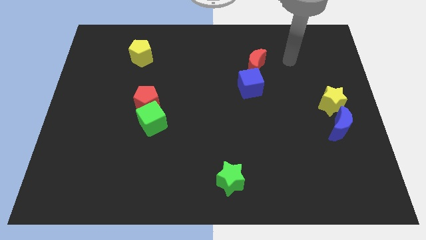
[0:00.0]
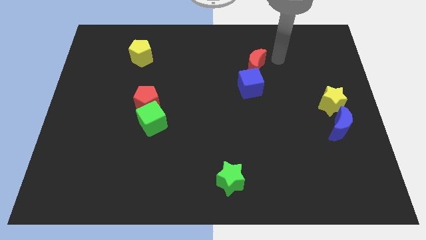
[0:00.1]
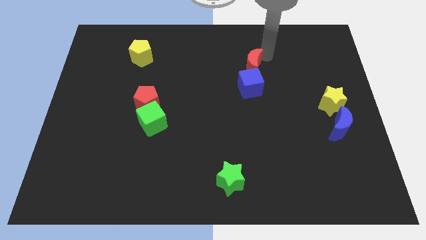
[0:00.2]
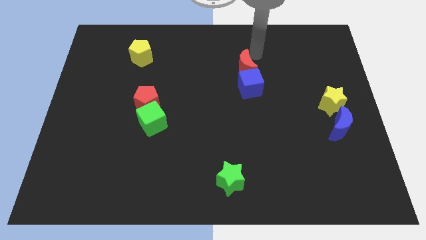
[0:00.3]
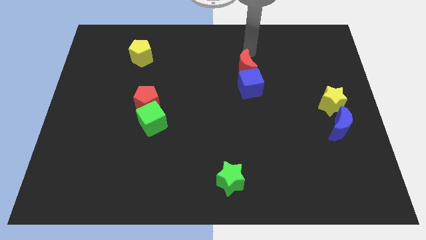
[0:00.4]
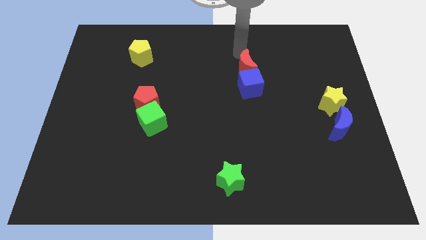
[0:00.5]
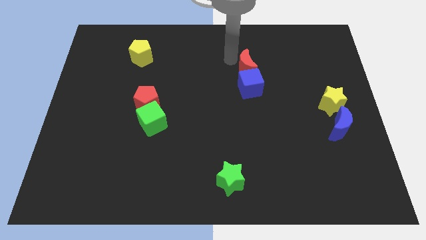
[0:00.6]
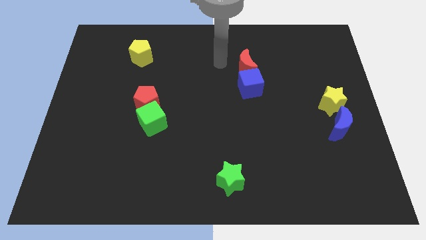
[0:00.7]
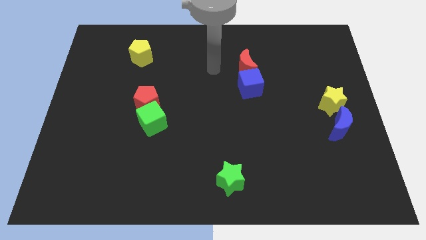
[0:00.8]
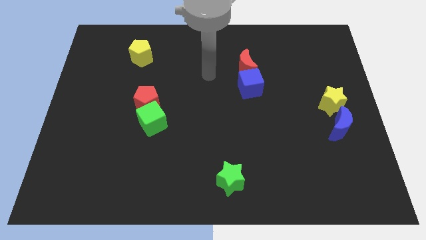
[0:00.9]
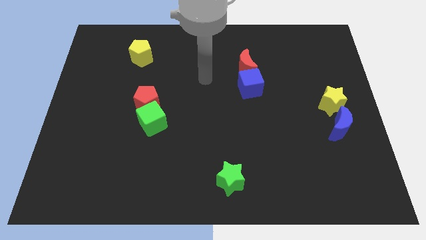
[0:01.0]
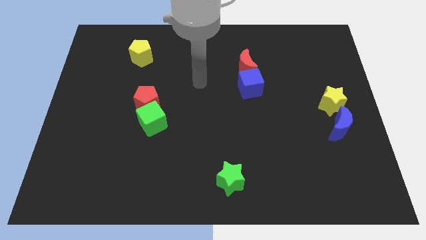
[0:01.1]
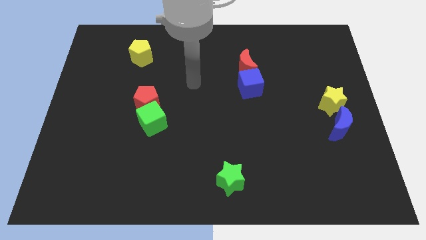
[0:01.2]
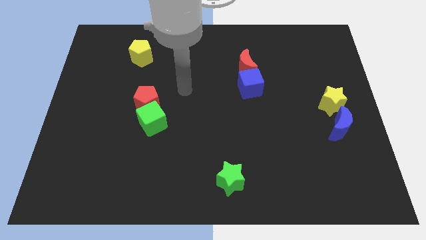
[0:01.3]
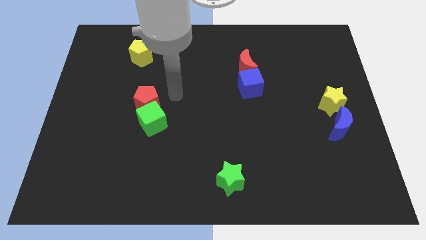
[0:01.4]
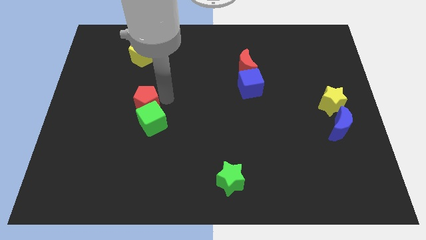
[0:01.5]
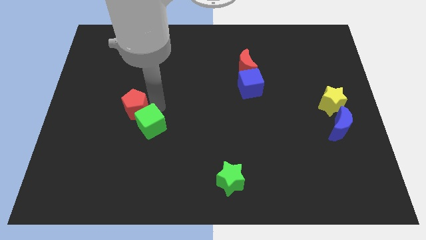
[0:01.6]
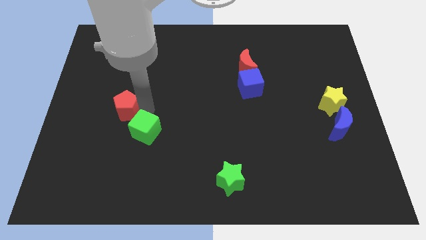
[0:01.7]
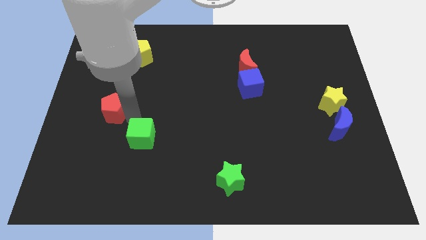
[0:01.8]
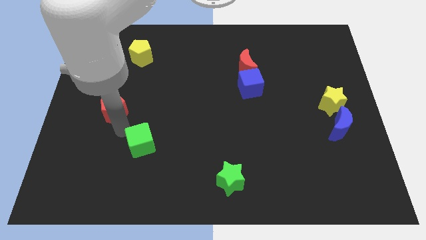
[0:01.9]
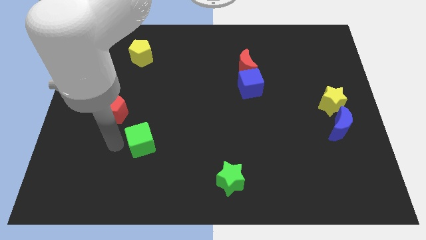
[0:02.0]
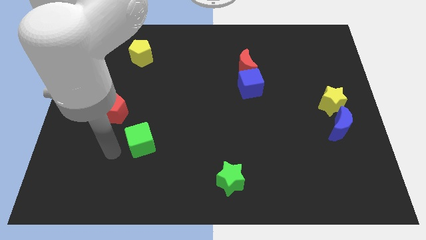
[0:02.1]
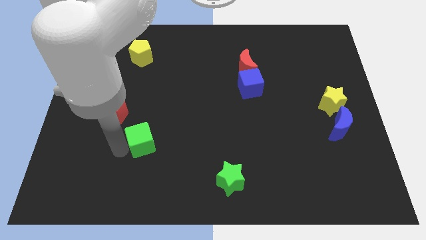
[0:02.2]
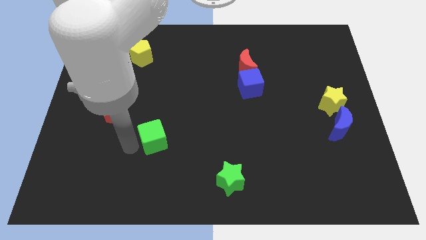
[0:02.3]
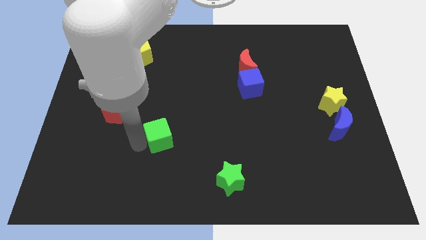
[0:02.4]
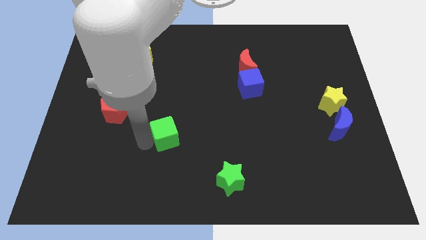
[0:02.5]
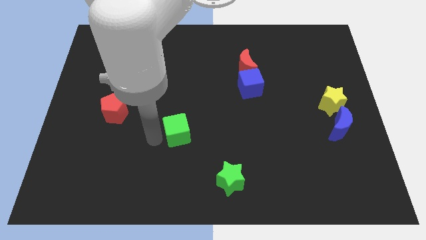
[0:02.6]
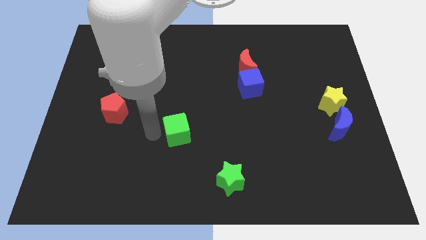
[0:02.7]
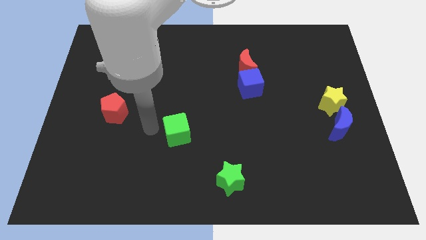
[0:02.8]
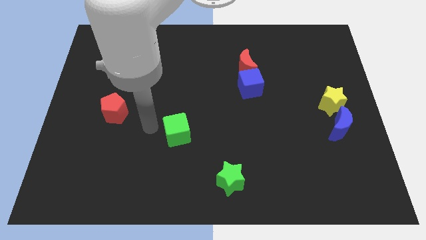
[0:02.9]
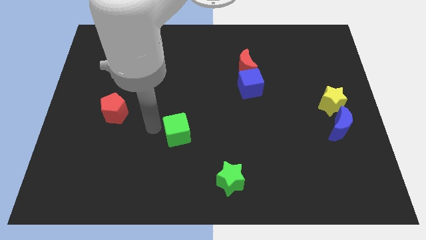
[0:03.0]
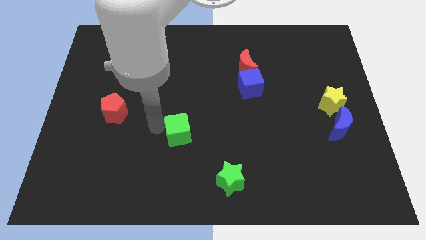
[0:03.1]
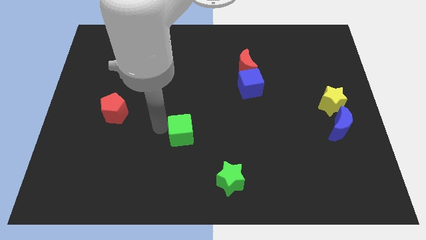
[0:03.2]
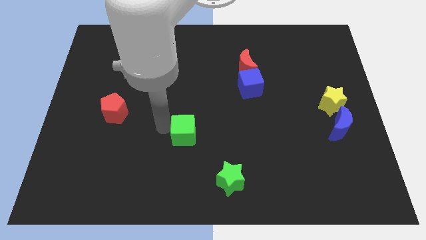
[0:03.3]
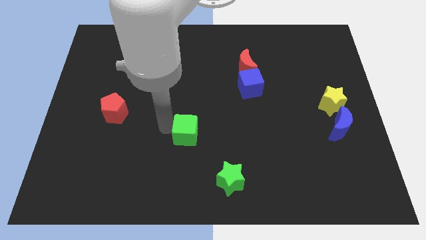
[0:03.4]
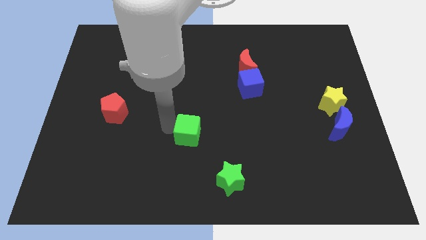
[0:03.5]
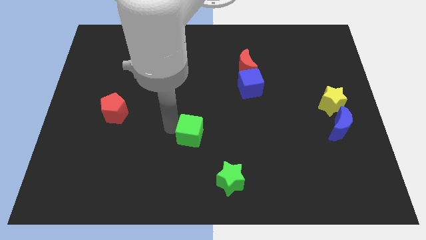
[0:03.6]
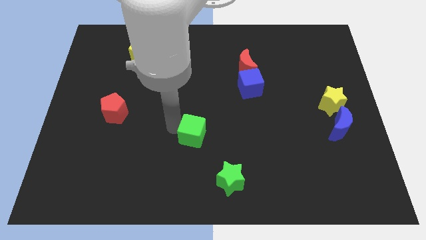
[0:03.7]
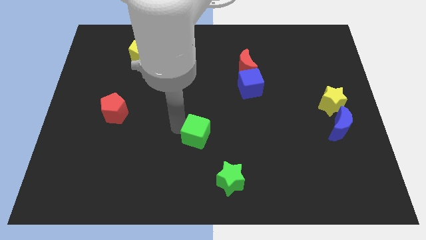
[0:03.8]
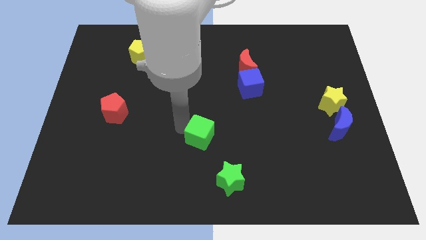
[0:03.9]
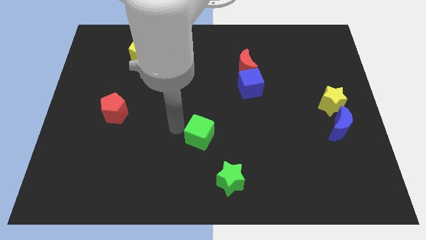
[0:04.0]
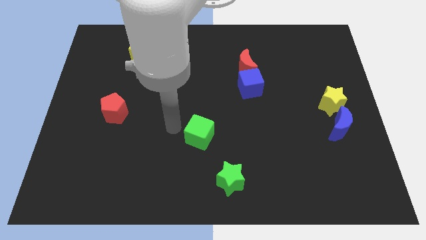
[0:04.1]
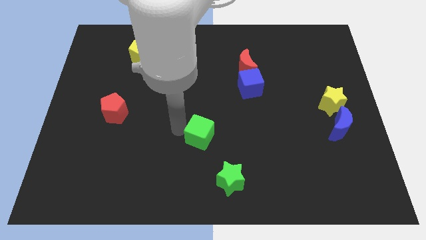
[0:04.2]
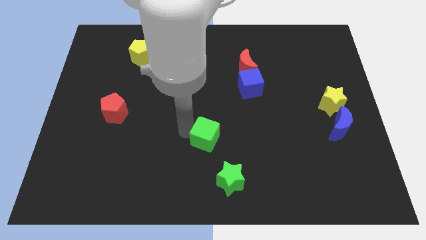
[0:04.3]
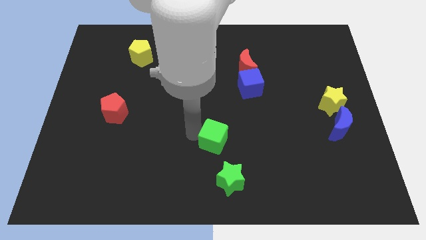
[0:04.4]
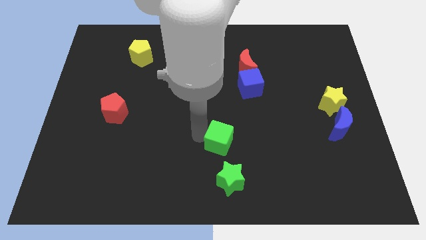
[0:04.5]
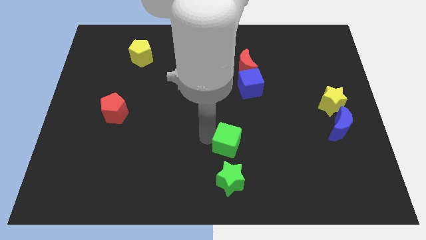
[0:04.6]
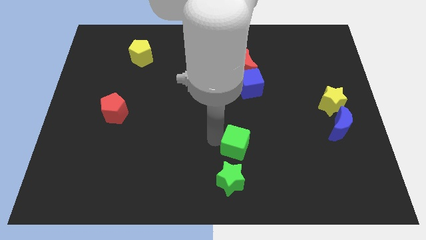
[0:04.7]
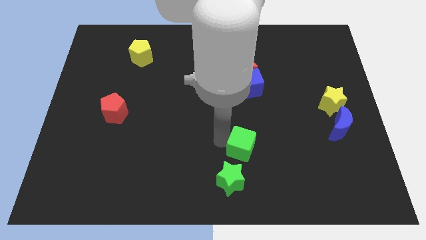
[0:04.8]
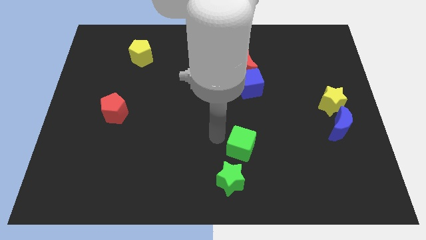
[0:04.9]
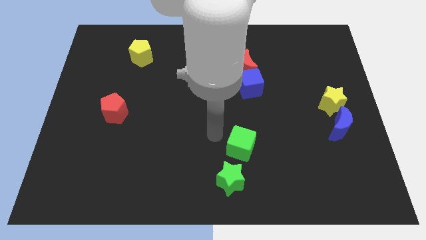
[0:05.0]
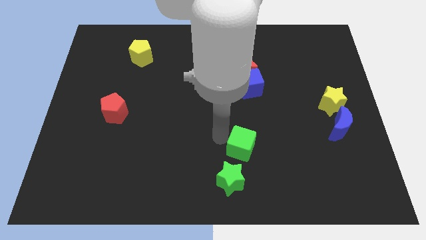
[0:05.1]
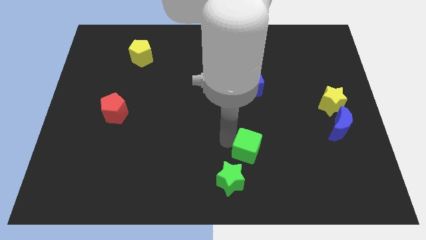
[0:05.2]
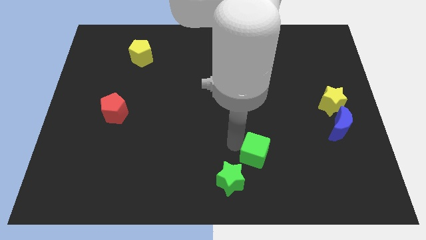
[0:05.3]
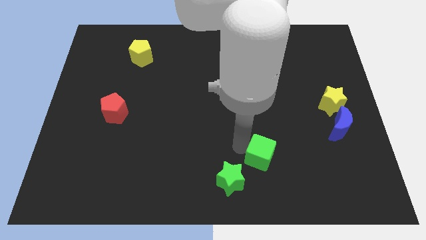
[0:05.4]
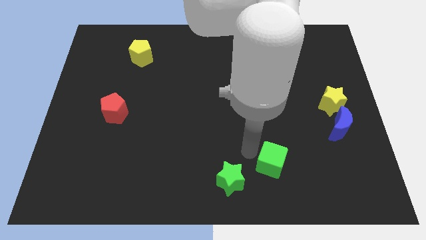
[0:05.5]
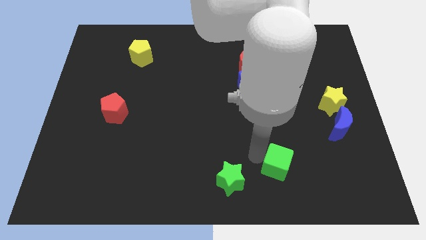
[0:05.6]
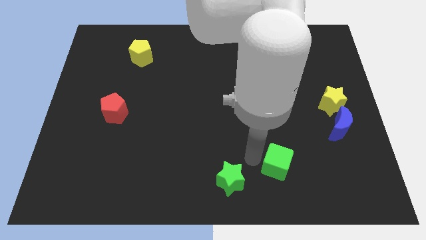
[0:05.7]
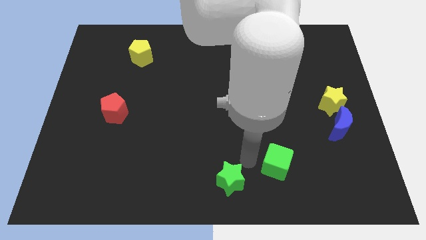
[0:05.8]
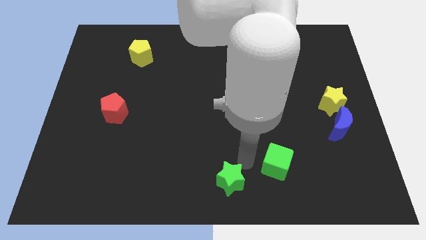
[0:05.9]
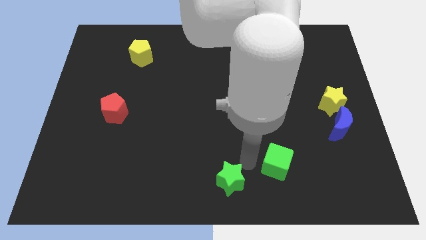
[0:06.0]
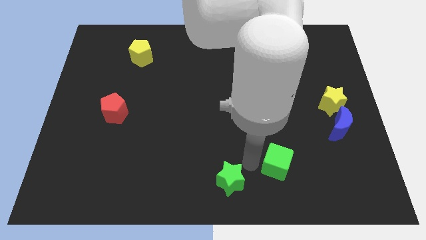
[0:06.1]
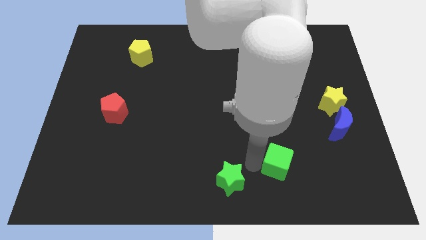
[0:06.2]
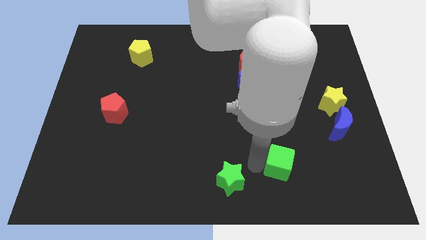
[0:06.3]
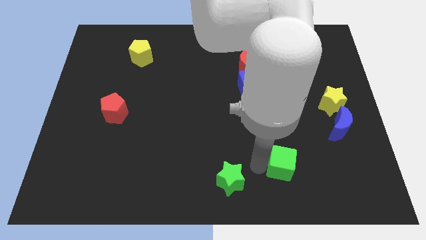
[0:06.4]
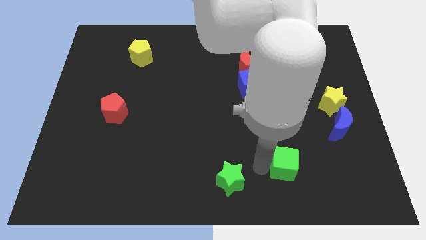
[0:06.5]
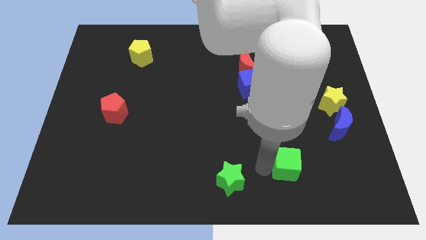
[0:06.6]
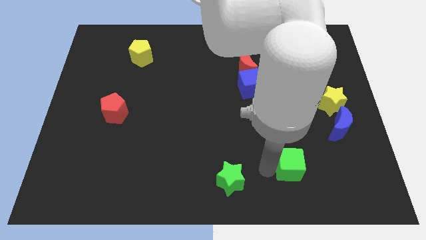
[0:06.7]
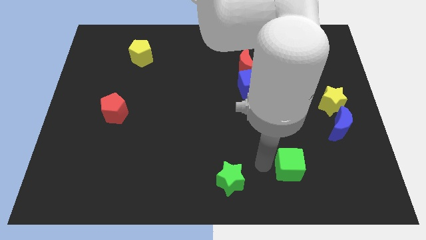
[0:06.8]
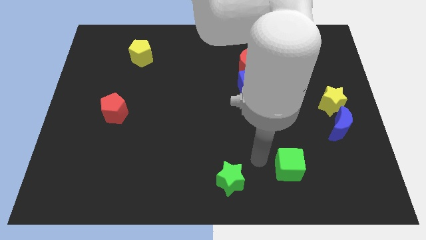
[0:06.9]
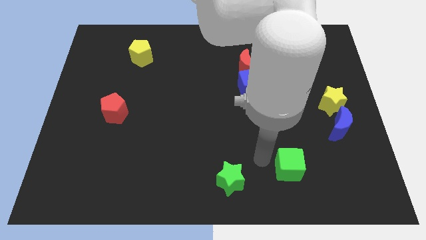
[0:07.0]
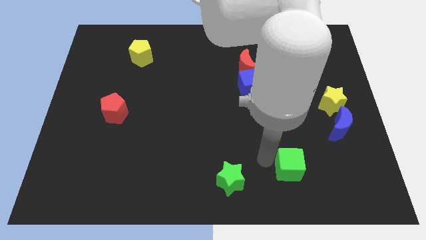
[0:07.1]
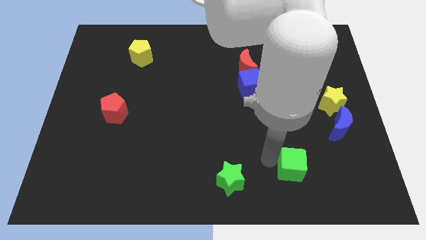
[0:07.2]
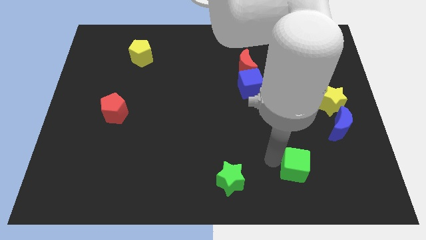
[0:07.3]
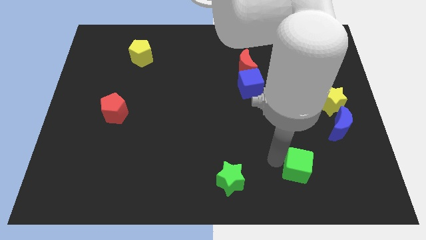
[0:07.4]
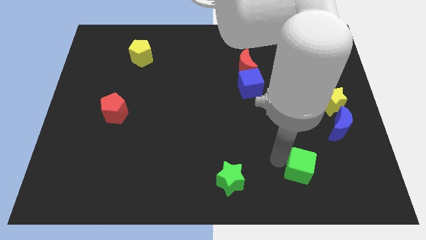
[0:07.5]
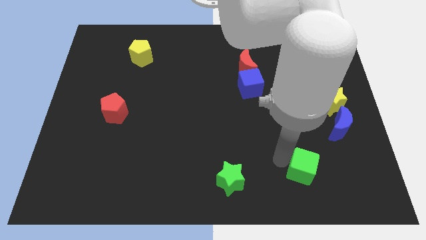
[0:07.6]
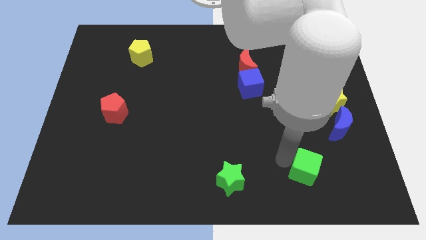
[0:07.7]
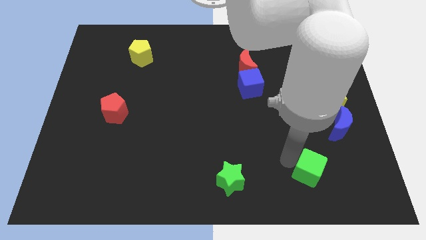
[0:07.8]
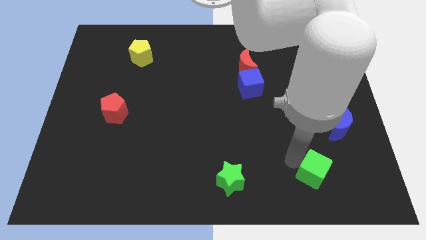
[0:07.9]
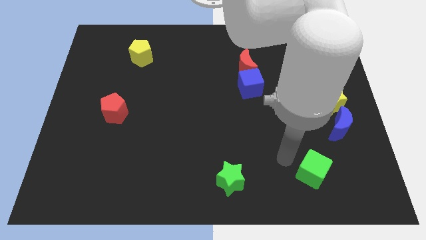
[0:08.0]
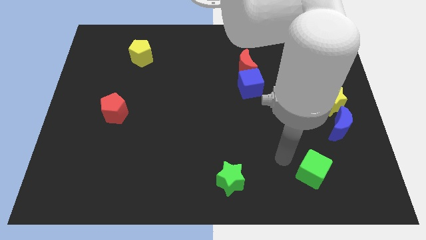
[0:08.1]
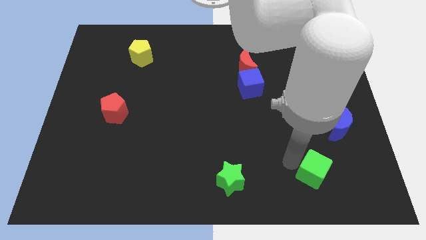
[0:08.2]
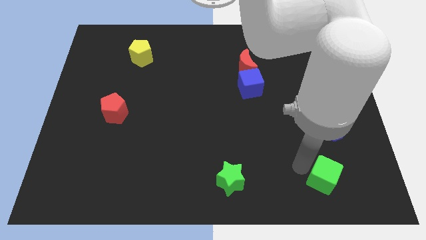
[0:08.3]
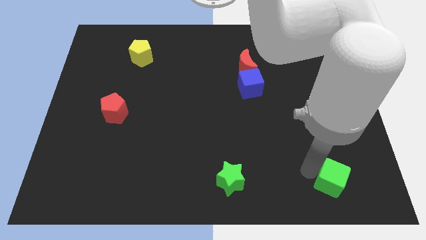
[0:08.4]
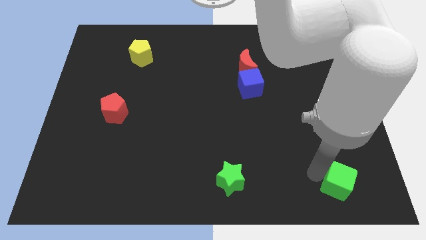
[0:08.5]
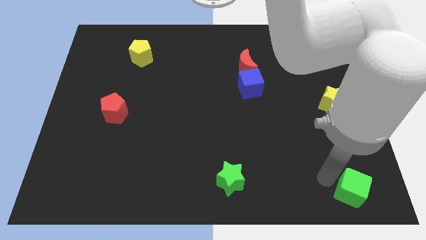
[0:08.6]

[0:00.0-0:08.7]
push the green cube to the bottom right corner
